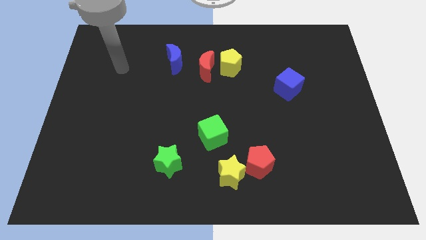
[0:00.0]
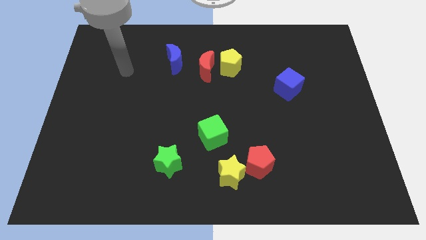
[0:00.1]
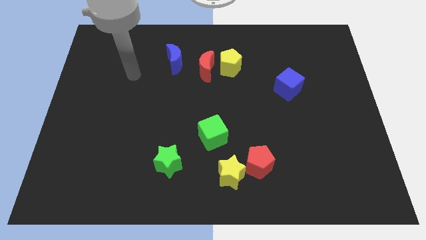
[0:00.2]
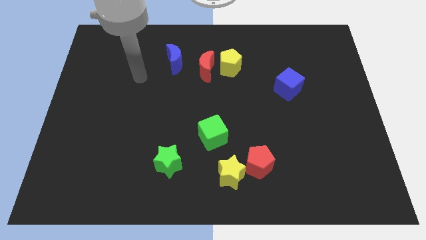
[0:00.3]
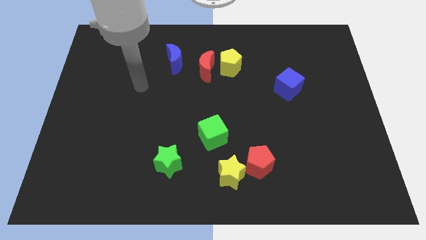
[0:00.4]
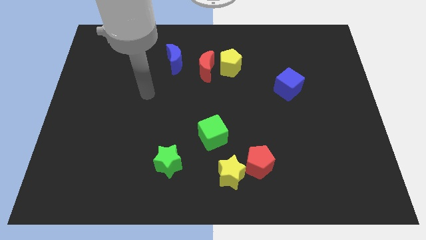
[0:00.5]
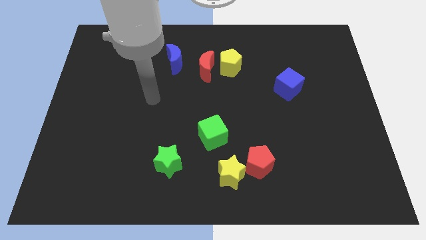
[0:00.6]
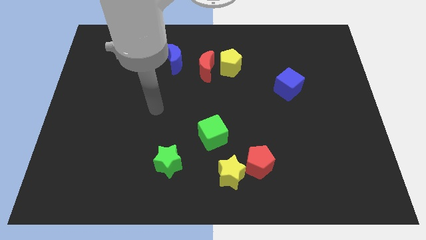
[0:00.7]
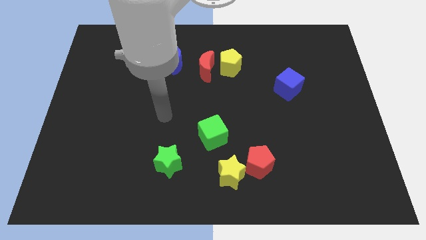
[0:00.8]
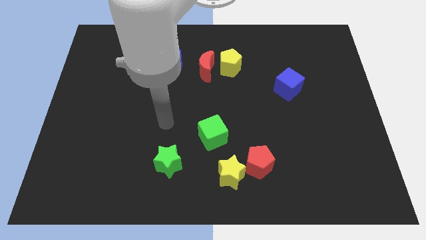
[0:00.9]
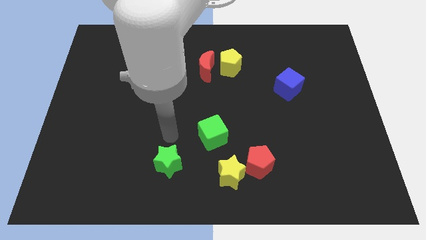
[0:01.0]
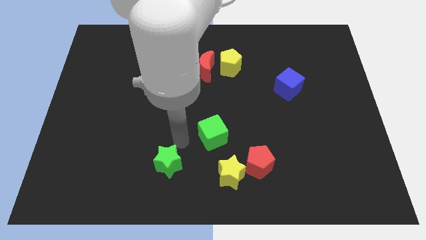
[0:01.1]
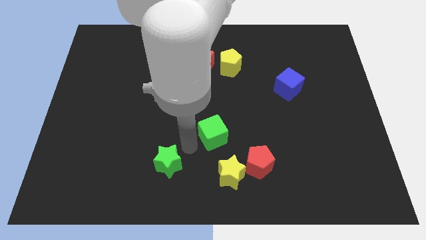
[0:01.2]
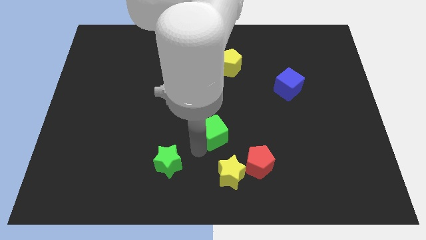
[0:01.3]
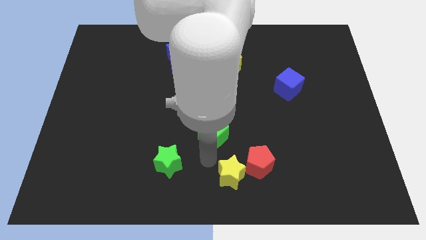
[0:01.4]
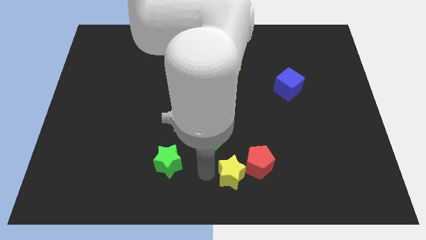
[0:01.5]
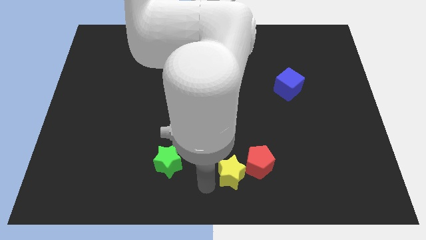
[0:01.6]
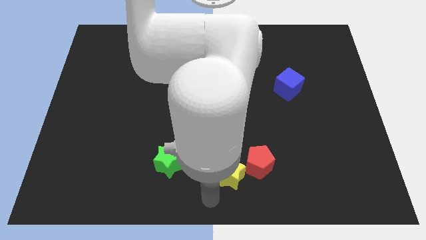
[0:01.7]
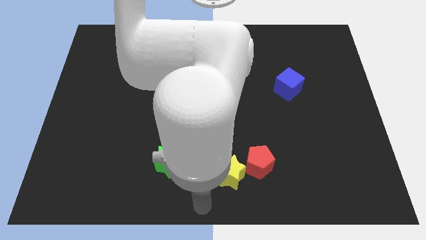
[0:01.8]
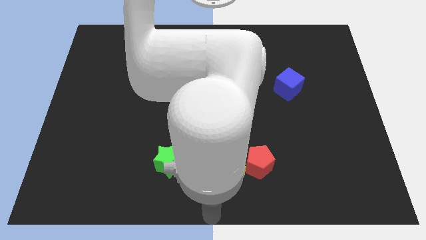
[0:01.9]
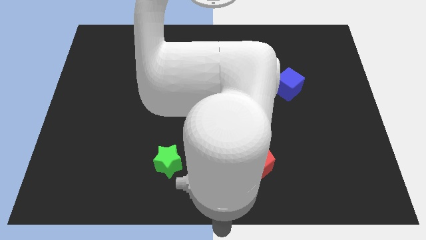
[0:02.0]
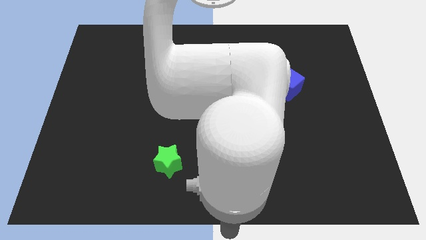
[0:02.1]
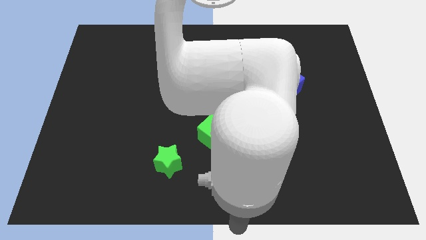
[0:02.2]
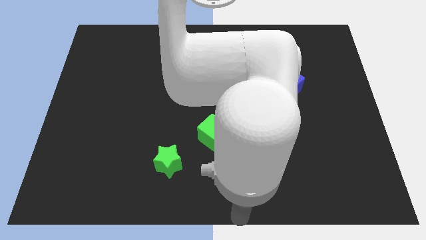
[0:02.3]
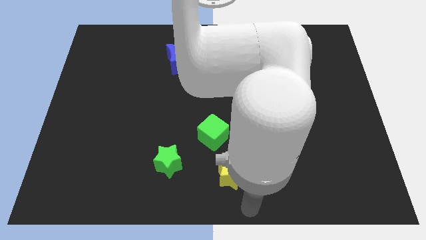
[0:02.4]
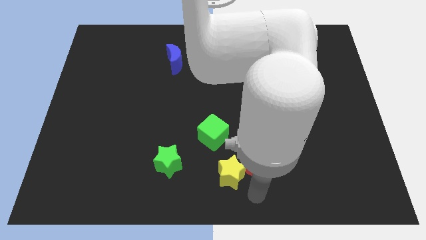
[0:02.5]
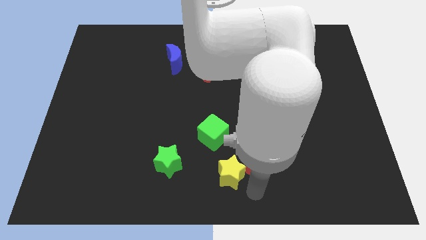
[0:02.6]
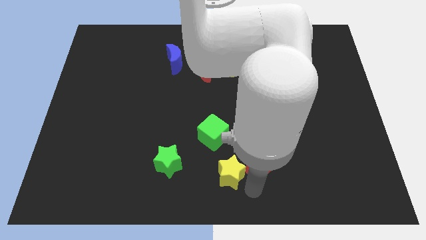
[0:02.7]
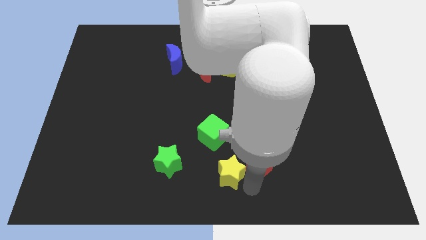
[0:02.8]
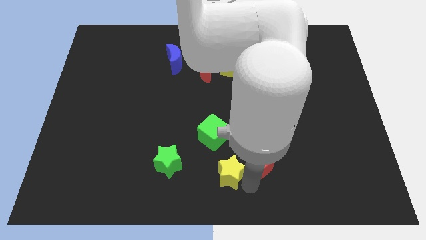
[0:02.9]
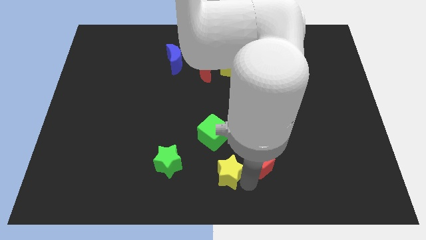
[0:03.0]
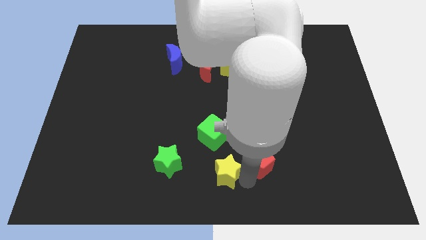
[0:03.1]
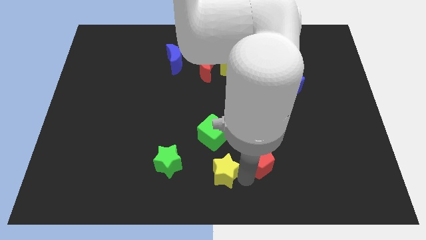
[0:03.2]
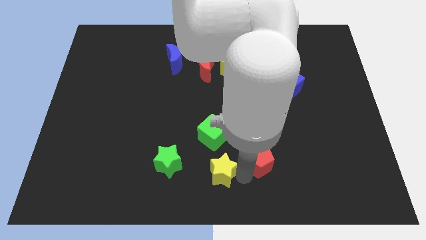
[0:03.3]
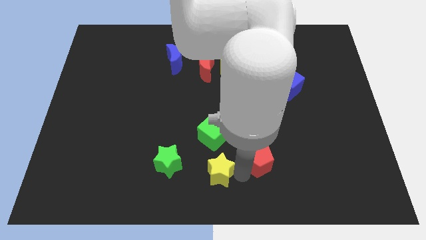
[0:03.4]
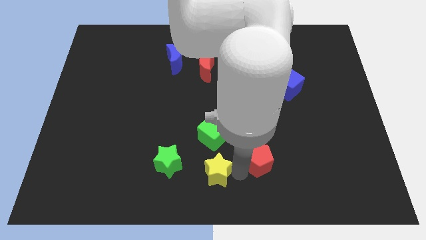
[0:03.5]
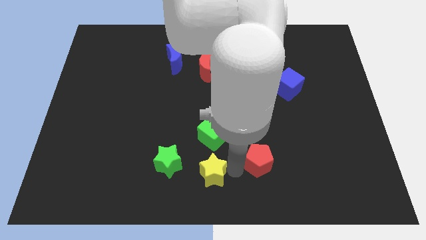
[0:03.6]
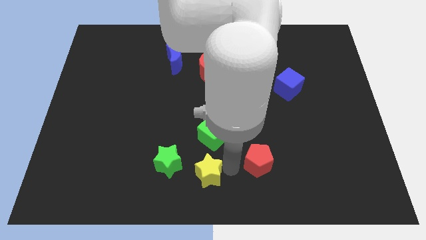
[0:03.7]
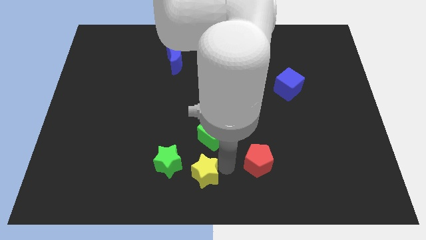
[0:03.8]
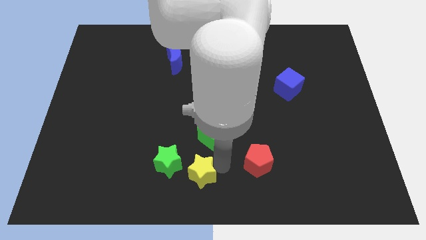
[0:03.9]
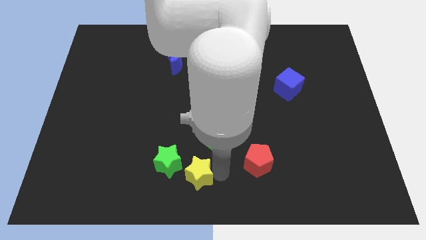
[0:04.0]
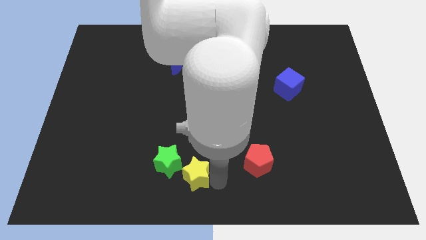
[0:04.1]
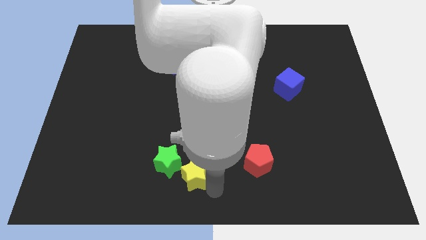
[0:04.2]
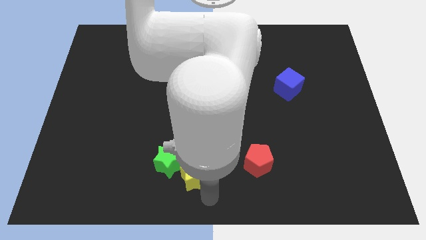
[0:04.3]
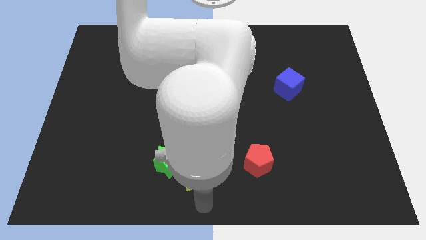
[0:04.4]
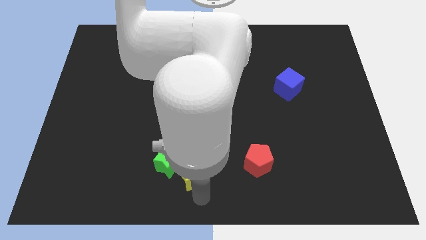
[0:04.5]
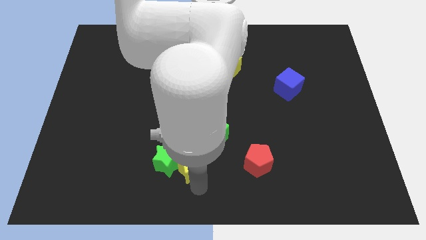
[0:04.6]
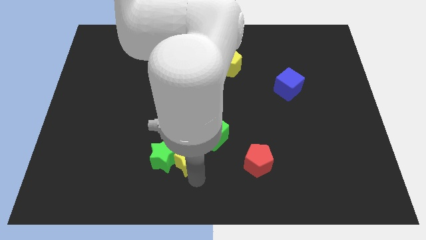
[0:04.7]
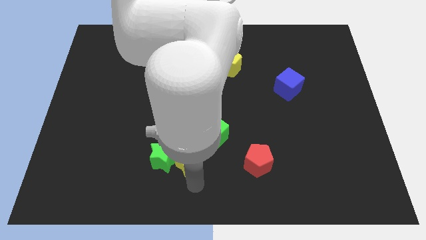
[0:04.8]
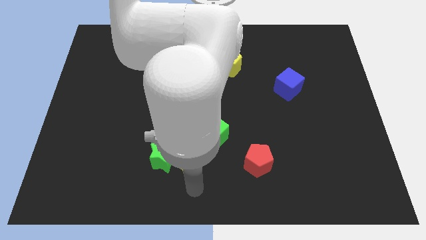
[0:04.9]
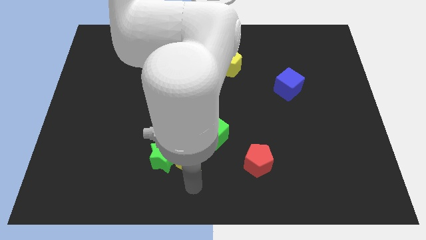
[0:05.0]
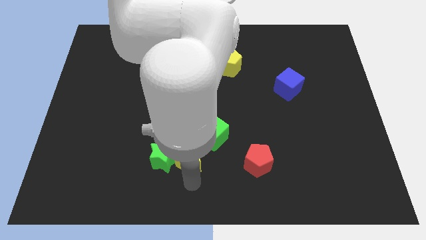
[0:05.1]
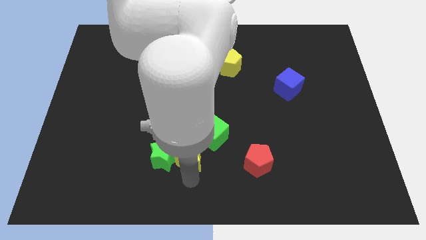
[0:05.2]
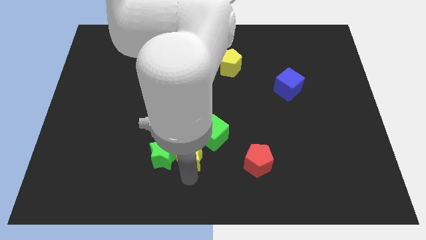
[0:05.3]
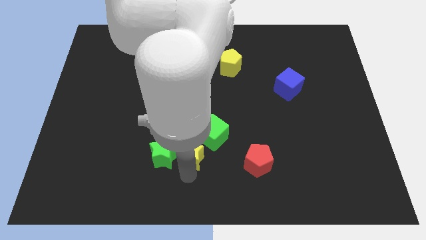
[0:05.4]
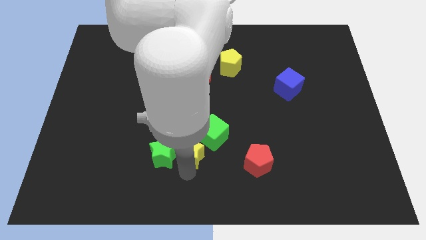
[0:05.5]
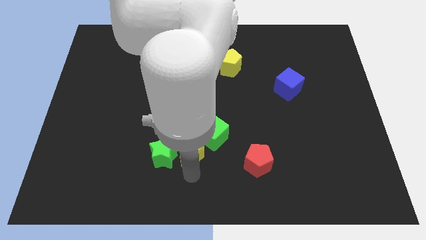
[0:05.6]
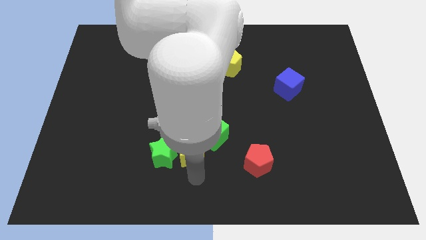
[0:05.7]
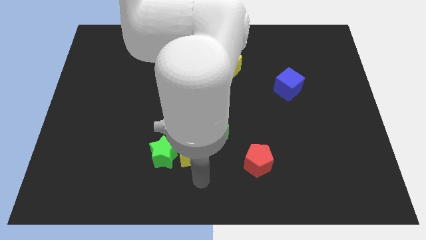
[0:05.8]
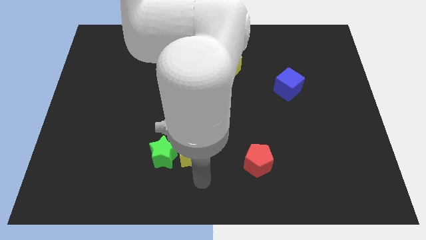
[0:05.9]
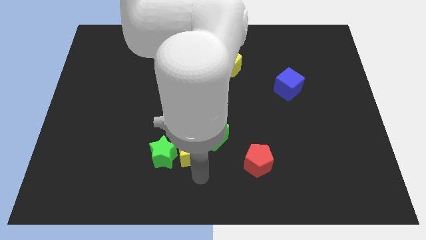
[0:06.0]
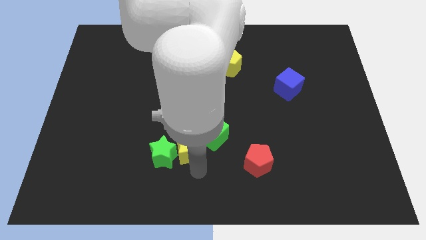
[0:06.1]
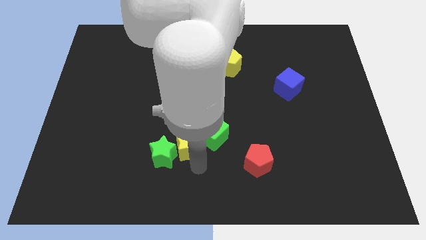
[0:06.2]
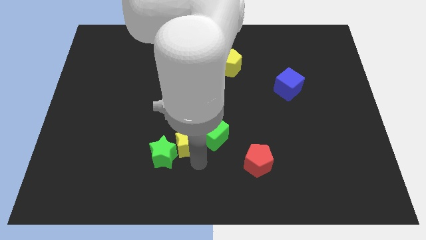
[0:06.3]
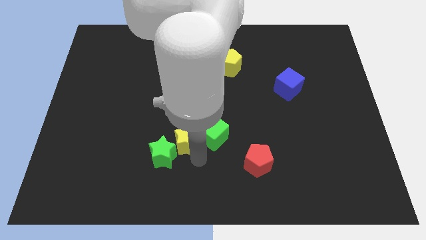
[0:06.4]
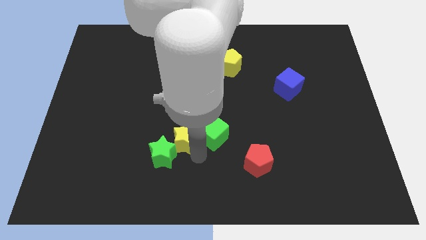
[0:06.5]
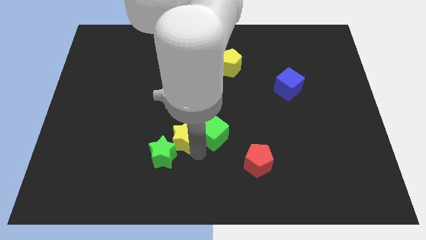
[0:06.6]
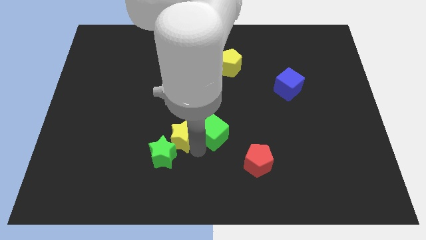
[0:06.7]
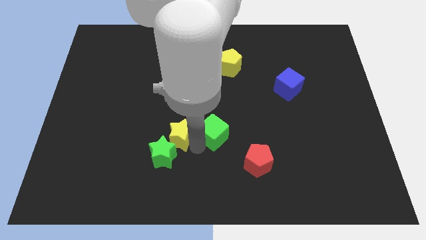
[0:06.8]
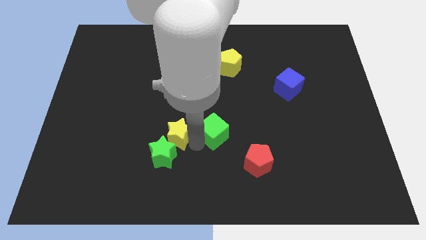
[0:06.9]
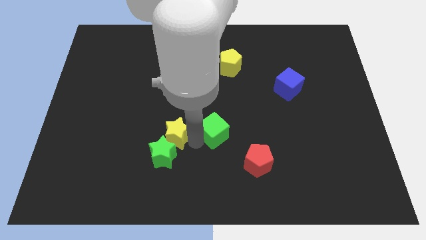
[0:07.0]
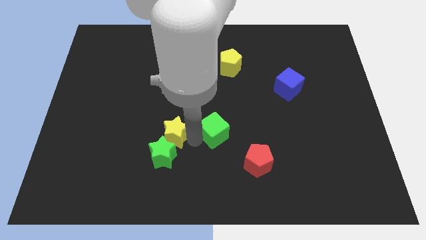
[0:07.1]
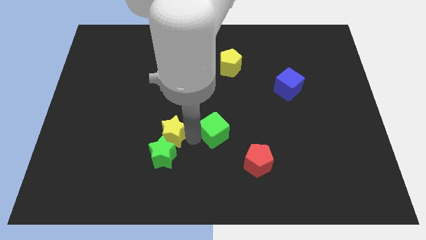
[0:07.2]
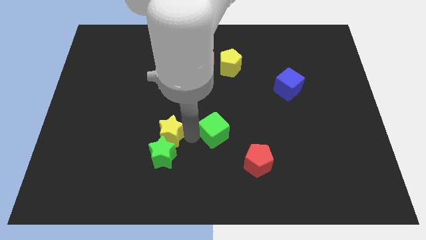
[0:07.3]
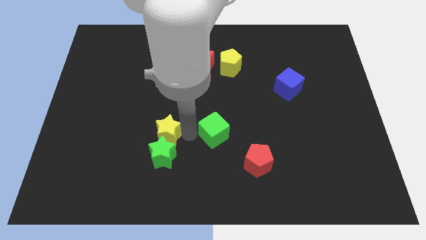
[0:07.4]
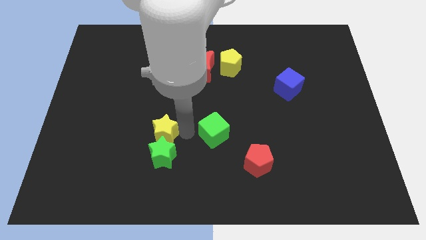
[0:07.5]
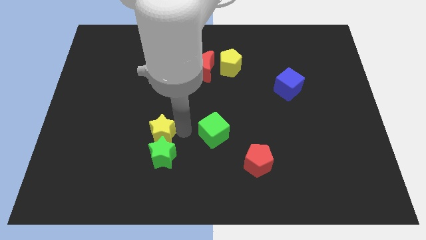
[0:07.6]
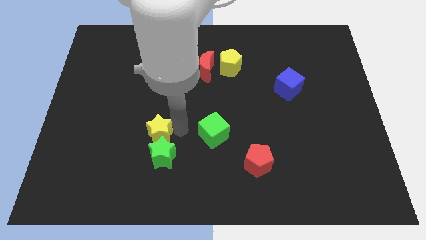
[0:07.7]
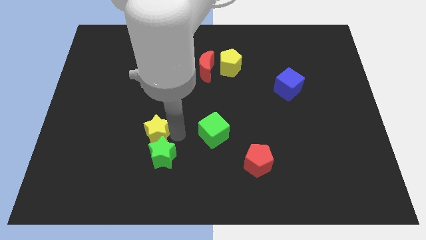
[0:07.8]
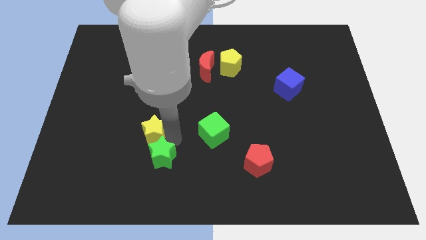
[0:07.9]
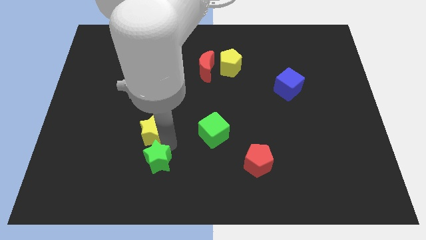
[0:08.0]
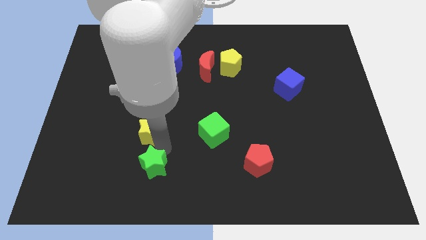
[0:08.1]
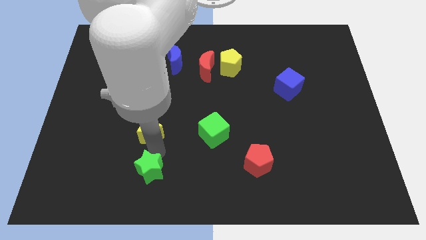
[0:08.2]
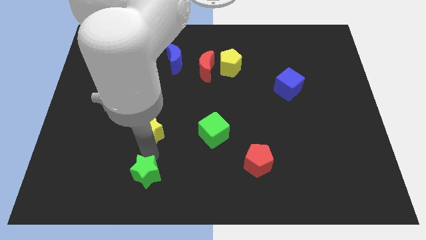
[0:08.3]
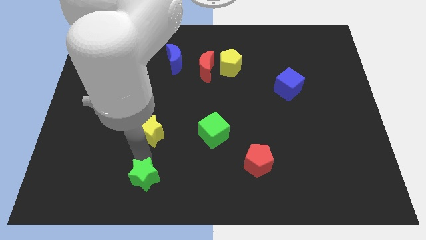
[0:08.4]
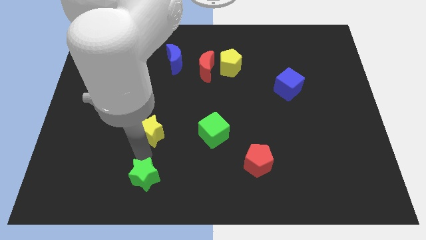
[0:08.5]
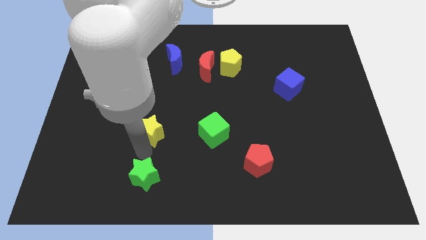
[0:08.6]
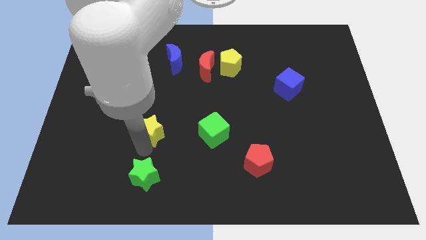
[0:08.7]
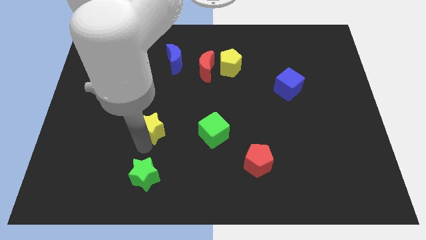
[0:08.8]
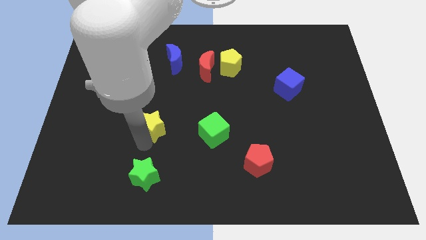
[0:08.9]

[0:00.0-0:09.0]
push the yellow star upwards and to the left
